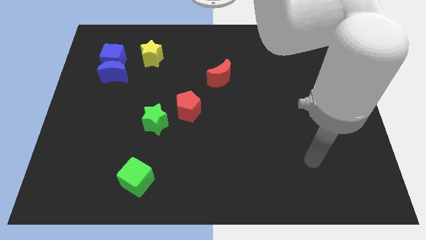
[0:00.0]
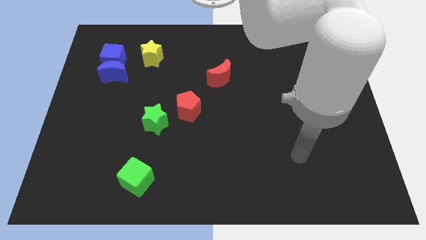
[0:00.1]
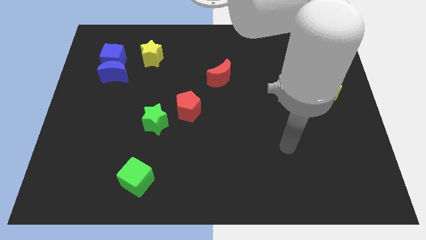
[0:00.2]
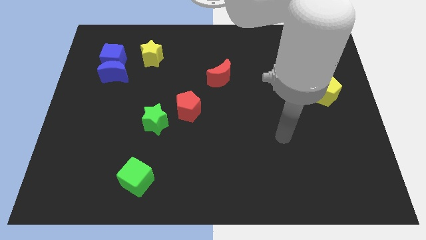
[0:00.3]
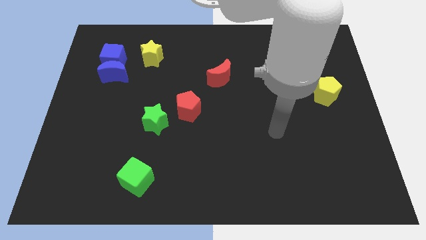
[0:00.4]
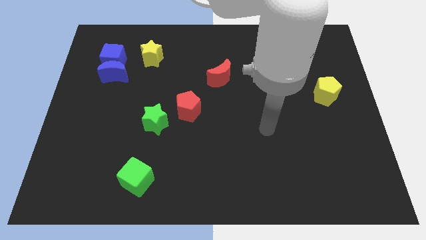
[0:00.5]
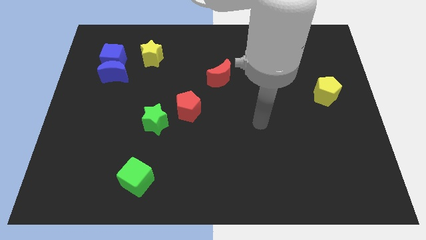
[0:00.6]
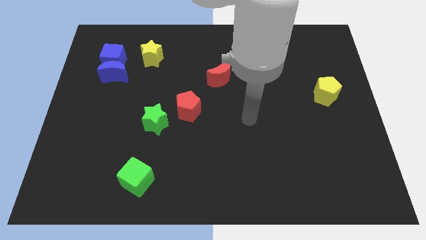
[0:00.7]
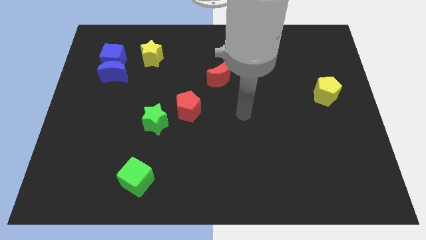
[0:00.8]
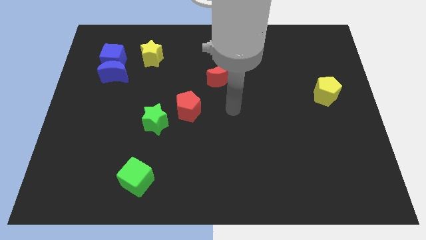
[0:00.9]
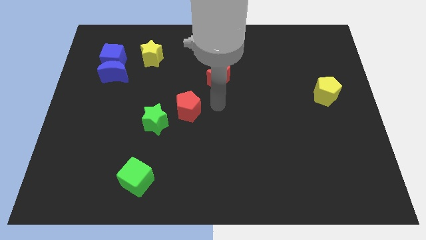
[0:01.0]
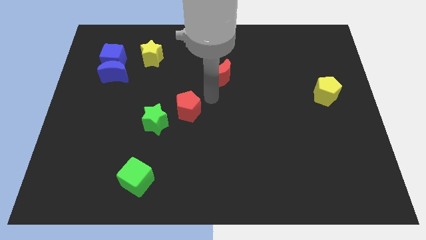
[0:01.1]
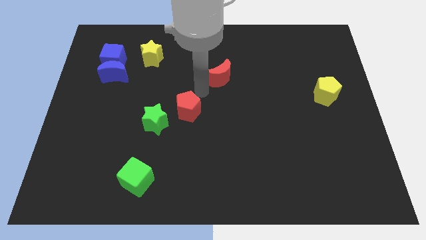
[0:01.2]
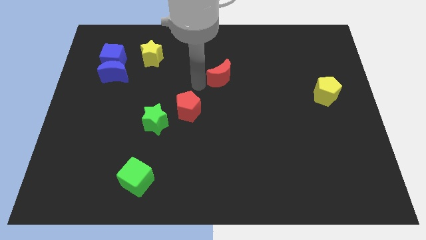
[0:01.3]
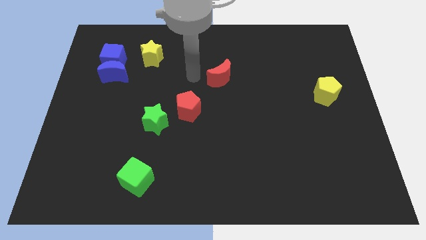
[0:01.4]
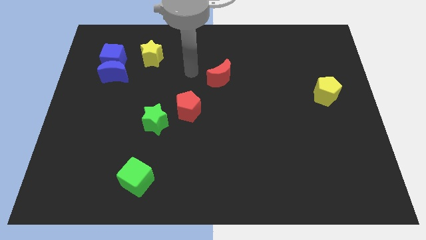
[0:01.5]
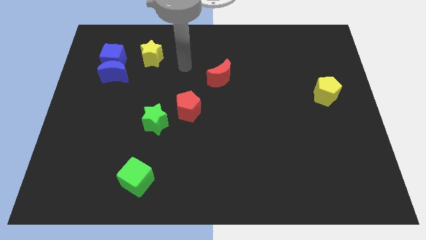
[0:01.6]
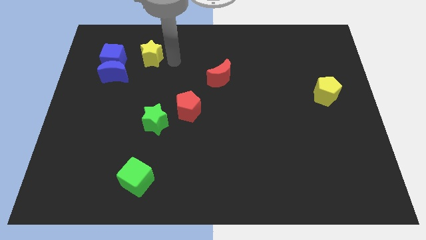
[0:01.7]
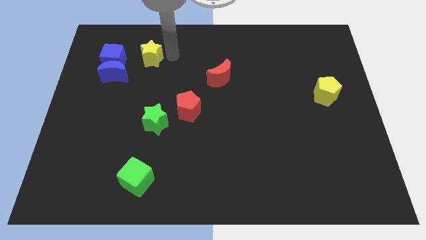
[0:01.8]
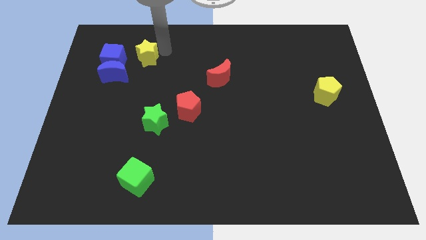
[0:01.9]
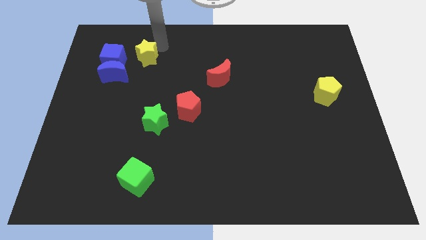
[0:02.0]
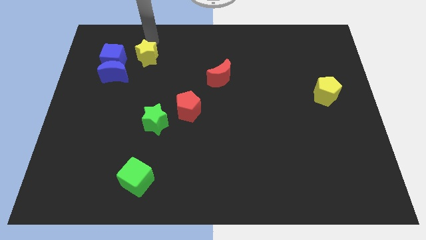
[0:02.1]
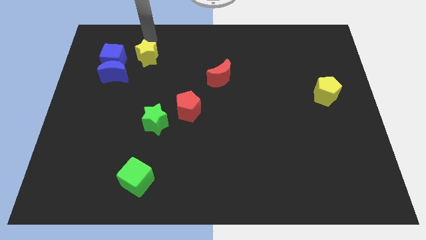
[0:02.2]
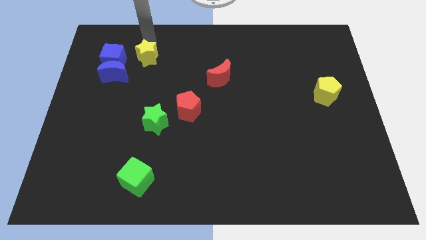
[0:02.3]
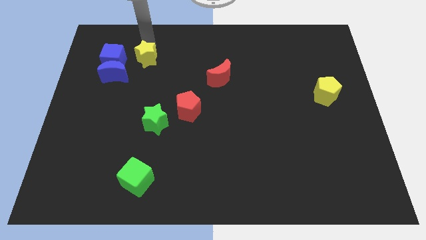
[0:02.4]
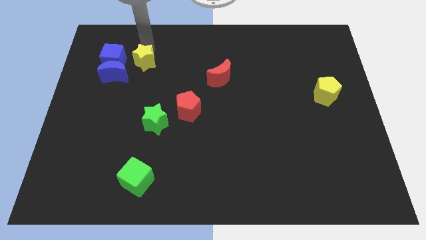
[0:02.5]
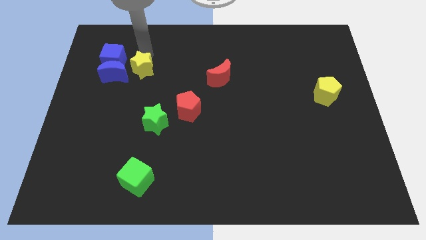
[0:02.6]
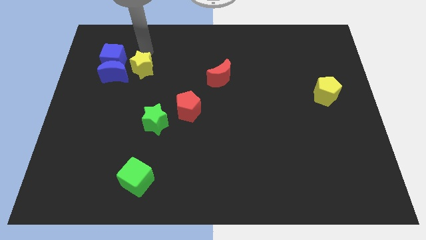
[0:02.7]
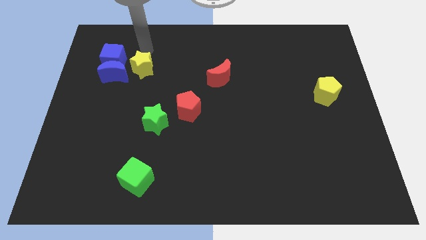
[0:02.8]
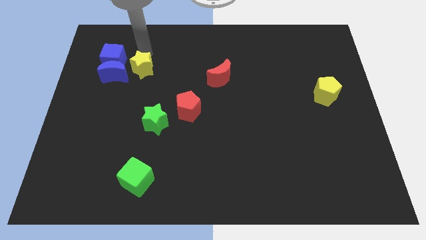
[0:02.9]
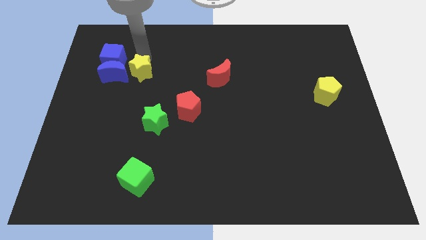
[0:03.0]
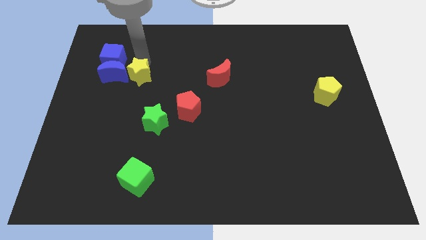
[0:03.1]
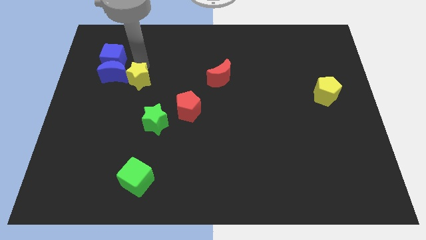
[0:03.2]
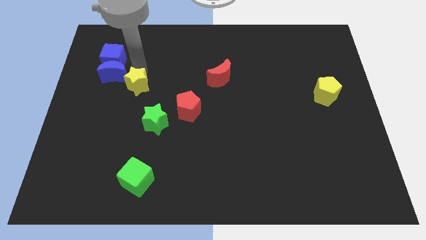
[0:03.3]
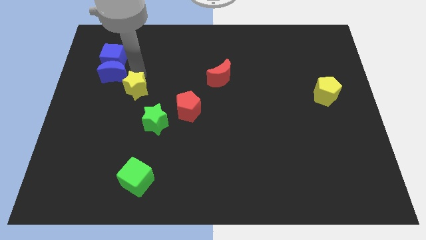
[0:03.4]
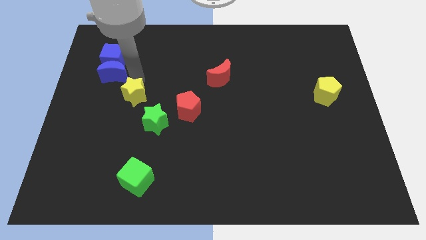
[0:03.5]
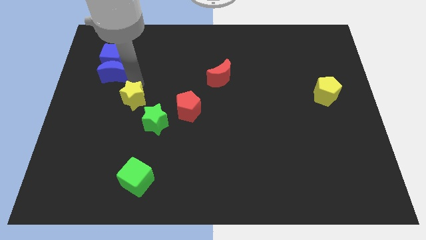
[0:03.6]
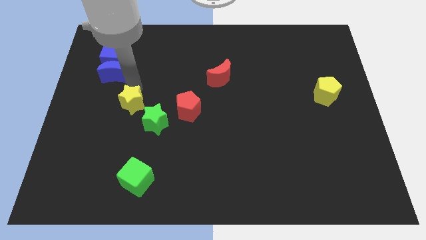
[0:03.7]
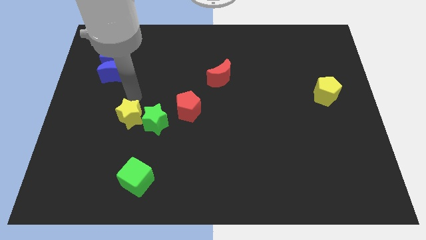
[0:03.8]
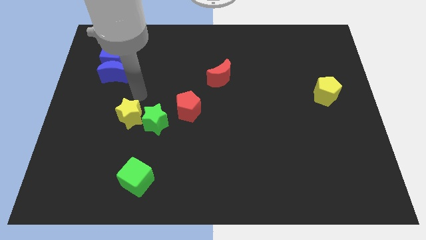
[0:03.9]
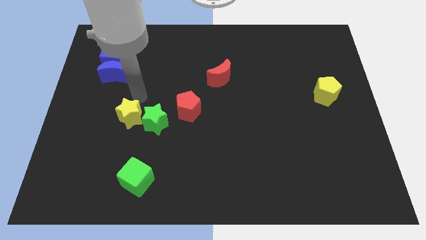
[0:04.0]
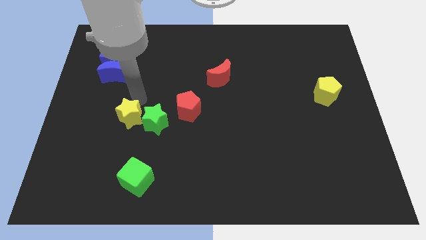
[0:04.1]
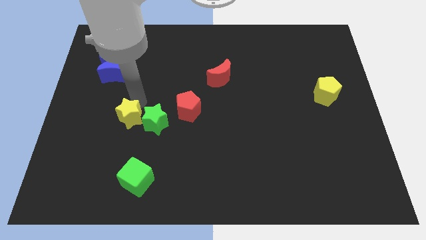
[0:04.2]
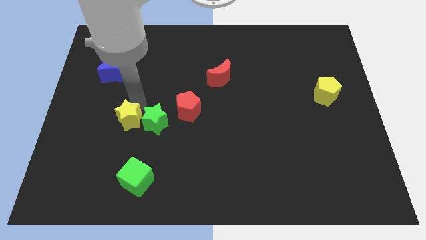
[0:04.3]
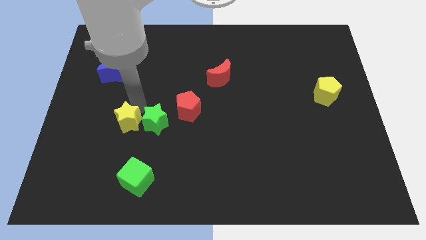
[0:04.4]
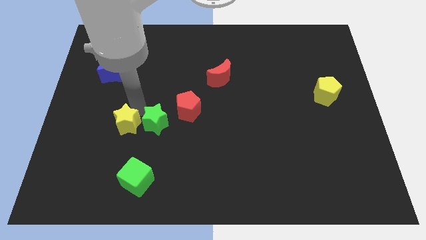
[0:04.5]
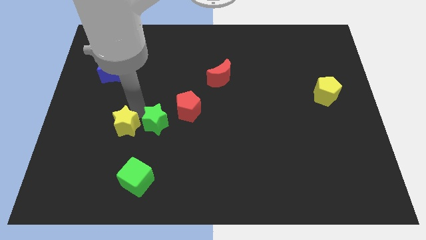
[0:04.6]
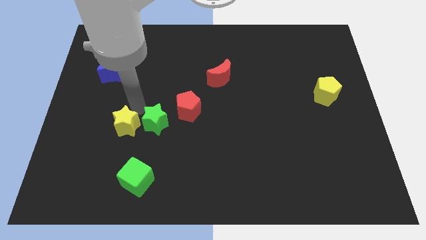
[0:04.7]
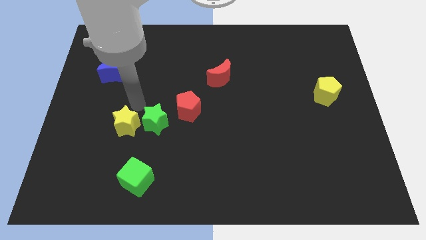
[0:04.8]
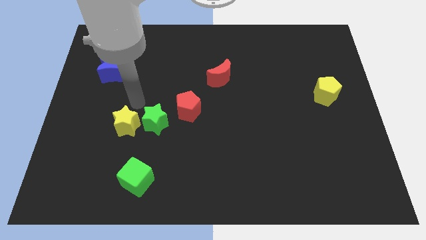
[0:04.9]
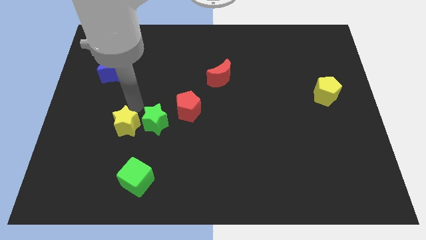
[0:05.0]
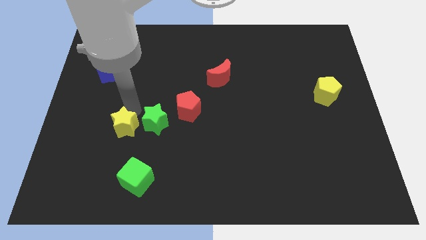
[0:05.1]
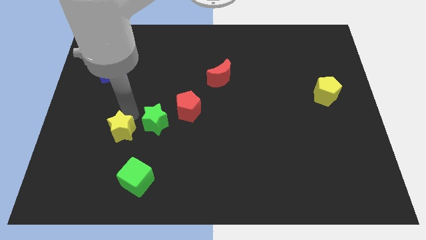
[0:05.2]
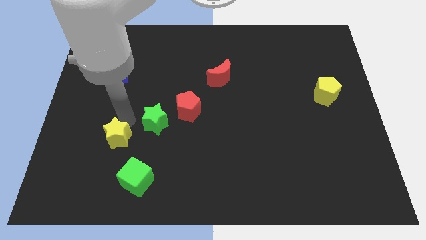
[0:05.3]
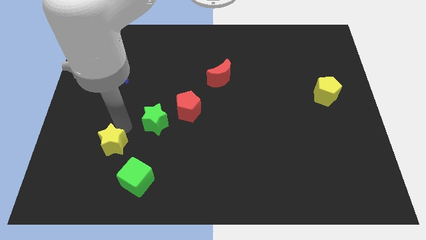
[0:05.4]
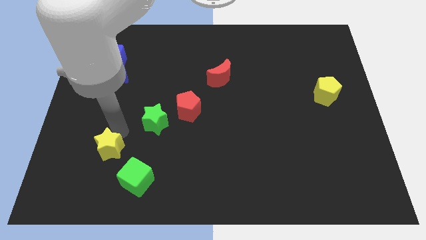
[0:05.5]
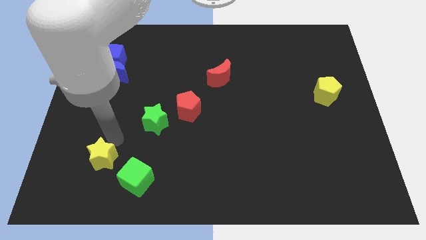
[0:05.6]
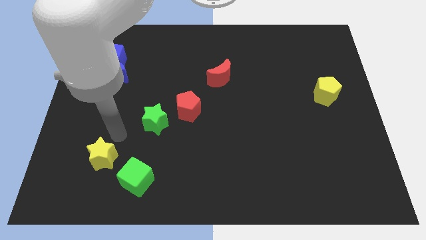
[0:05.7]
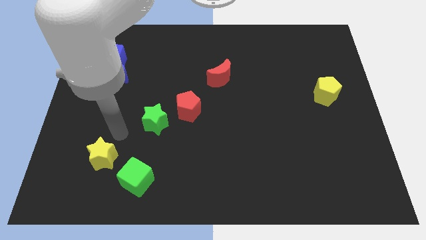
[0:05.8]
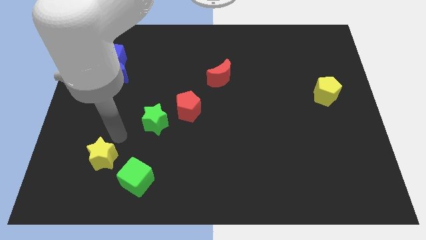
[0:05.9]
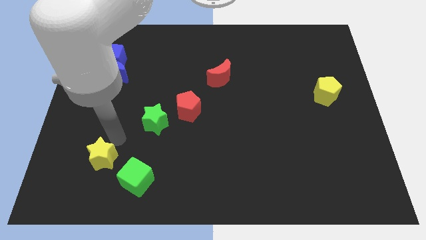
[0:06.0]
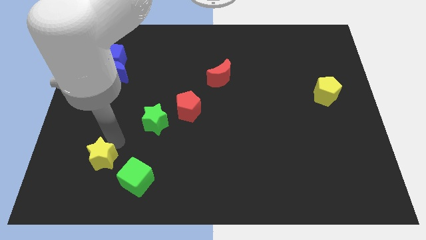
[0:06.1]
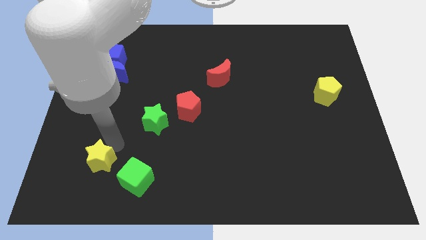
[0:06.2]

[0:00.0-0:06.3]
slide the yellow star just left of the green cube

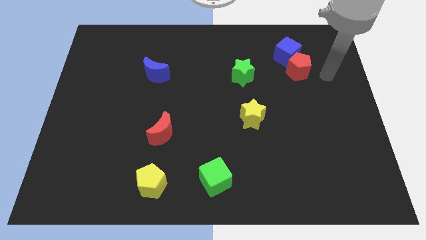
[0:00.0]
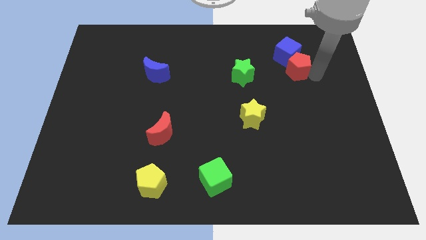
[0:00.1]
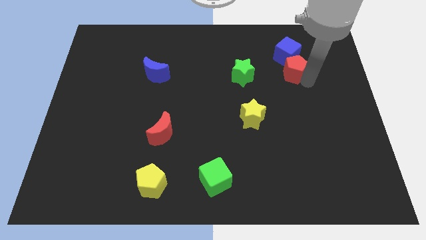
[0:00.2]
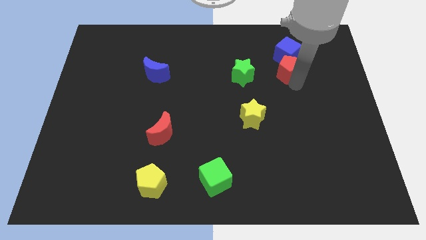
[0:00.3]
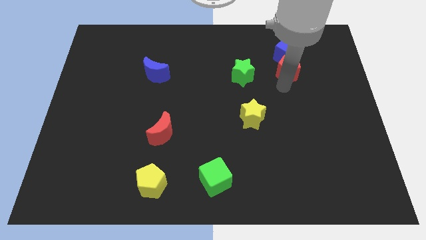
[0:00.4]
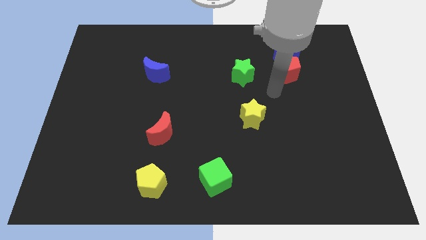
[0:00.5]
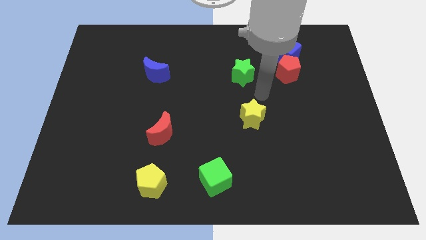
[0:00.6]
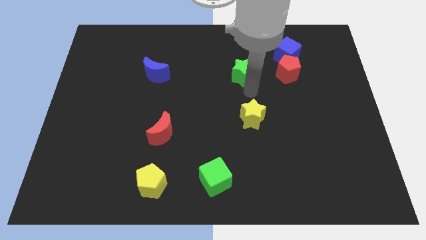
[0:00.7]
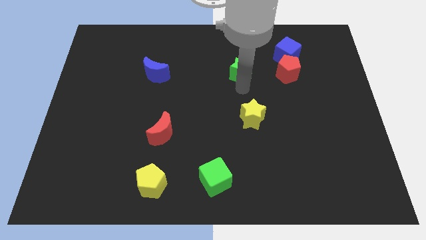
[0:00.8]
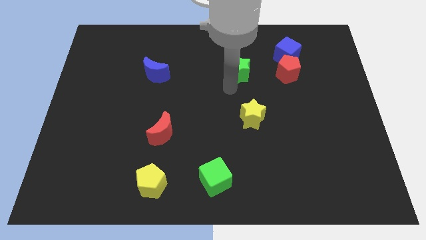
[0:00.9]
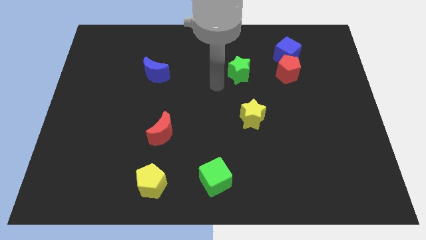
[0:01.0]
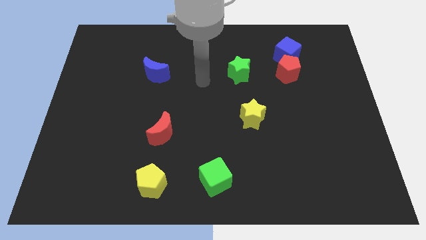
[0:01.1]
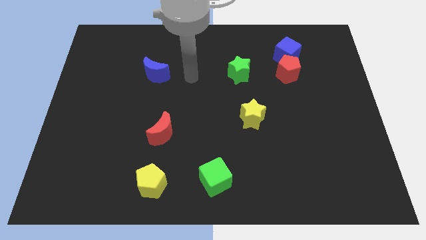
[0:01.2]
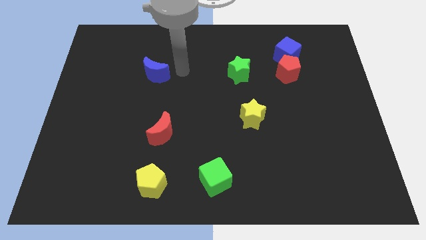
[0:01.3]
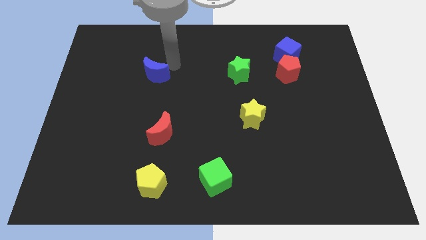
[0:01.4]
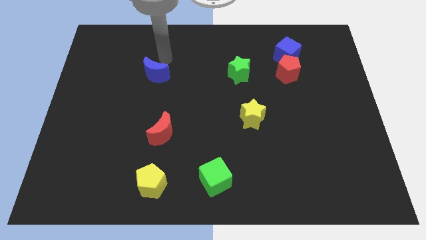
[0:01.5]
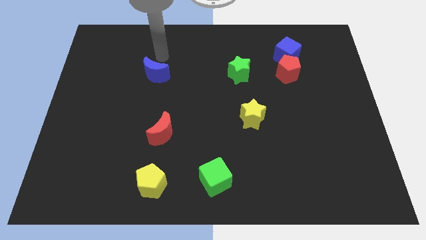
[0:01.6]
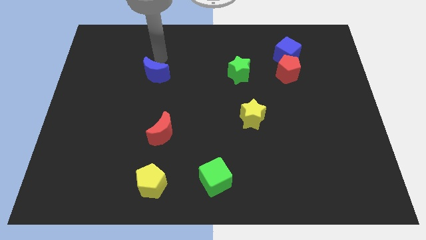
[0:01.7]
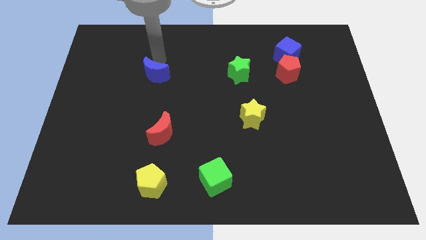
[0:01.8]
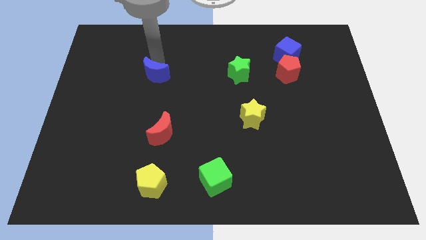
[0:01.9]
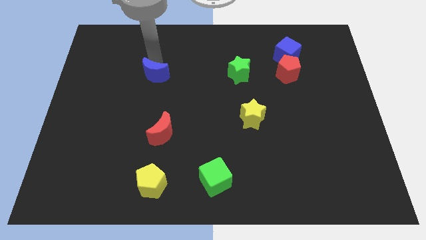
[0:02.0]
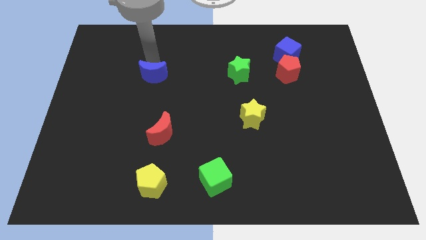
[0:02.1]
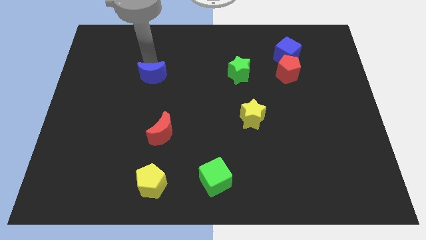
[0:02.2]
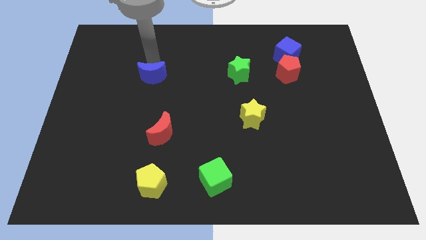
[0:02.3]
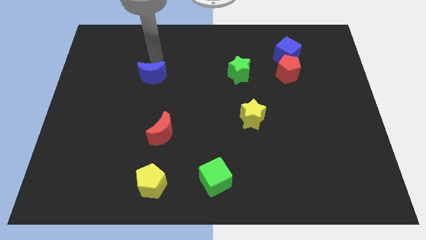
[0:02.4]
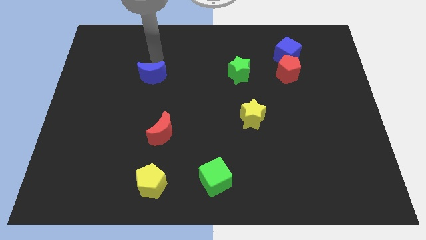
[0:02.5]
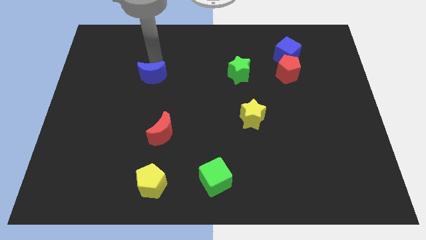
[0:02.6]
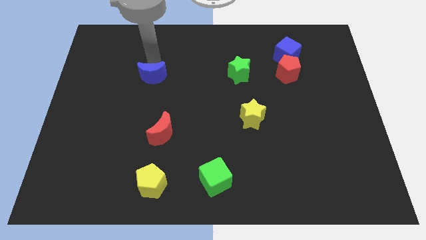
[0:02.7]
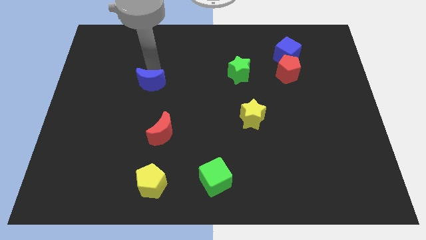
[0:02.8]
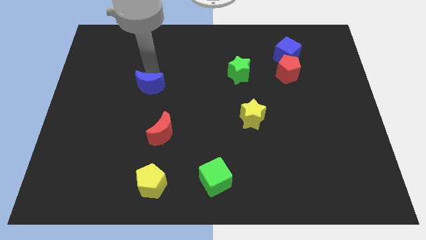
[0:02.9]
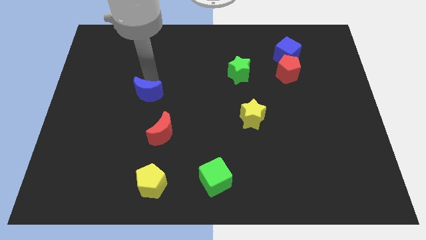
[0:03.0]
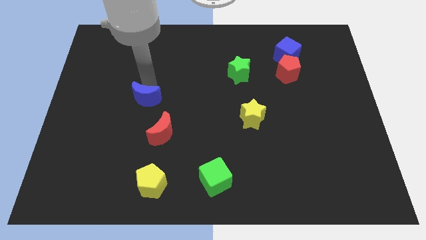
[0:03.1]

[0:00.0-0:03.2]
move the blue moon to the top left of the red moon
